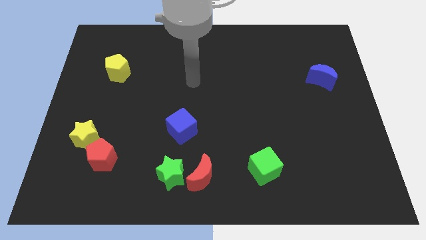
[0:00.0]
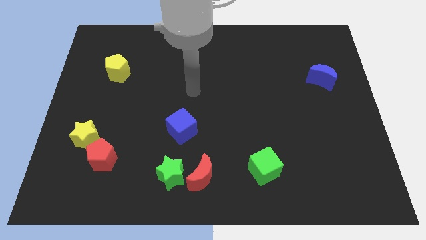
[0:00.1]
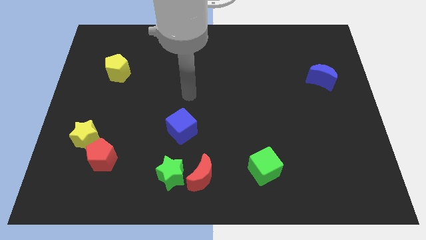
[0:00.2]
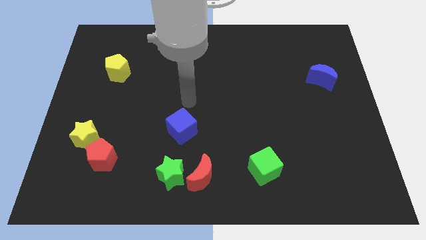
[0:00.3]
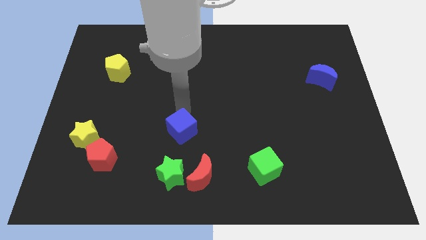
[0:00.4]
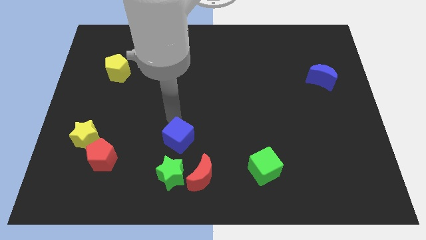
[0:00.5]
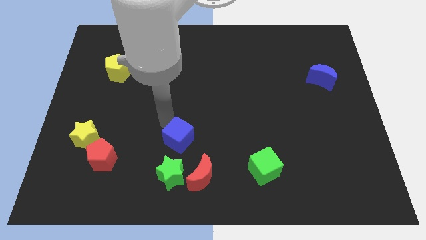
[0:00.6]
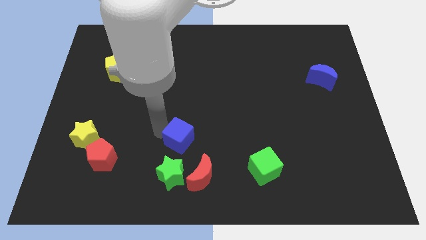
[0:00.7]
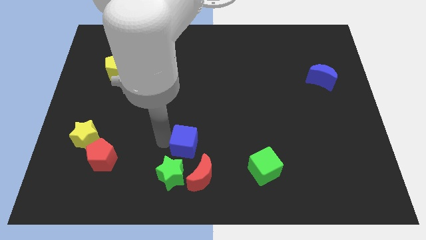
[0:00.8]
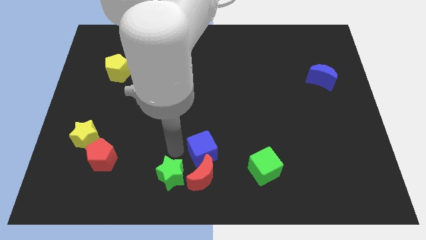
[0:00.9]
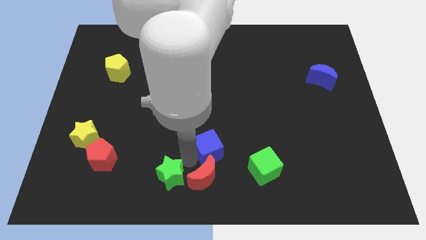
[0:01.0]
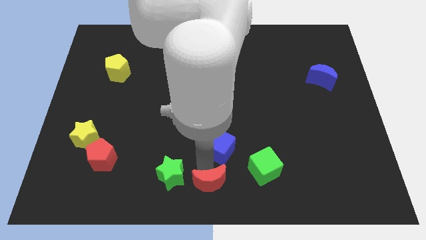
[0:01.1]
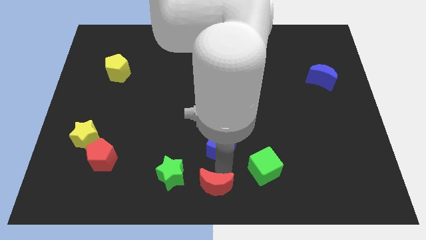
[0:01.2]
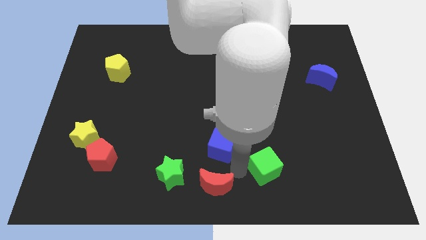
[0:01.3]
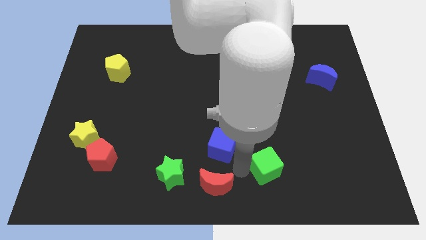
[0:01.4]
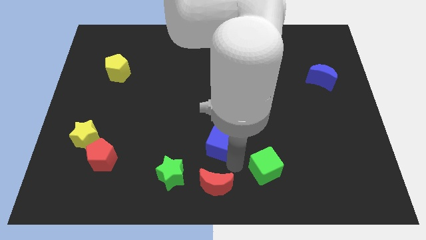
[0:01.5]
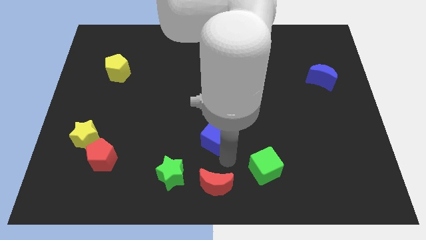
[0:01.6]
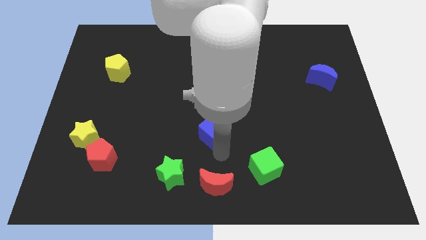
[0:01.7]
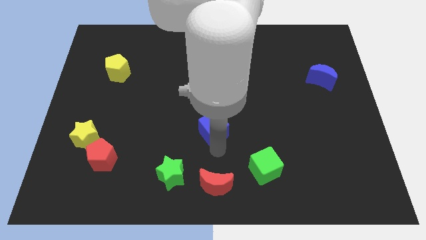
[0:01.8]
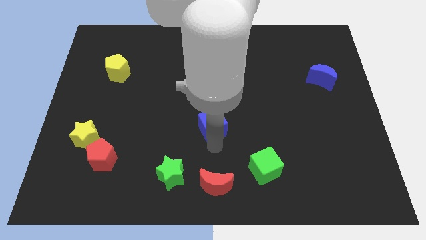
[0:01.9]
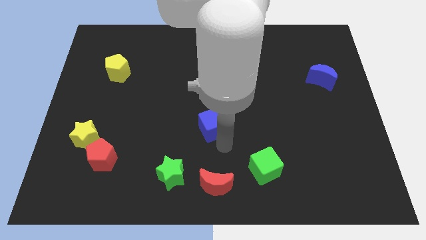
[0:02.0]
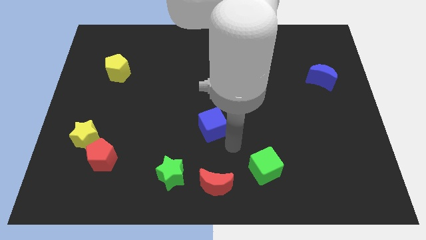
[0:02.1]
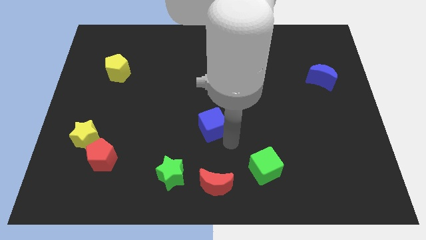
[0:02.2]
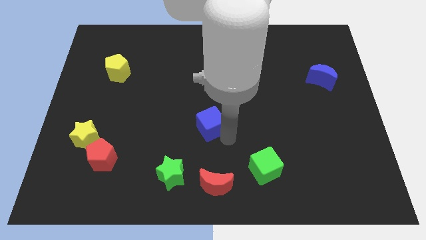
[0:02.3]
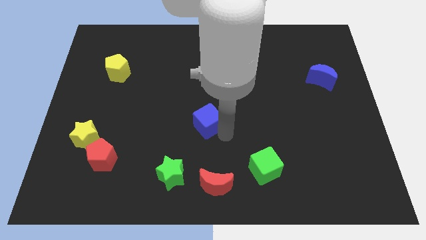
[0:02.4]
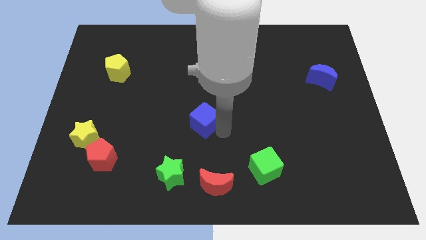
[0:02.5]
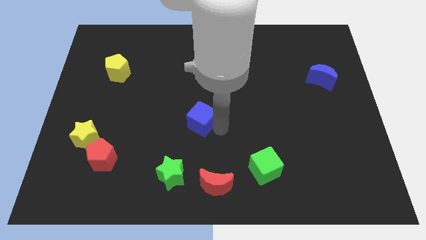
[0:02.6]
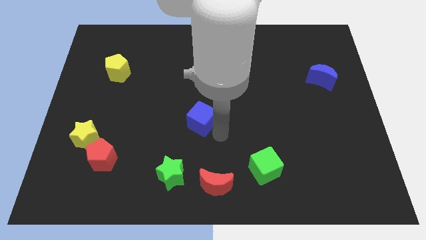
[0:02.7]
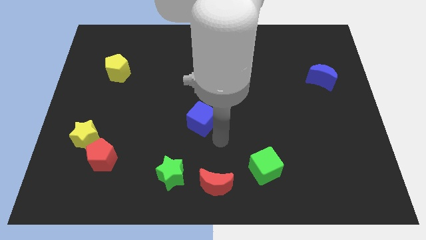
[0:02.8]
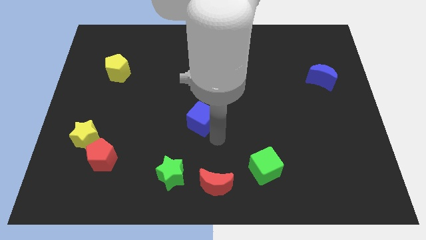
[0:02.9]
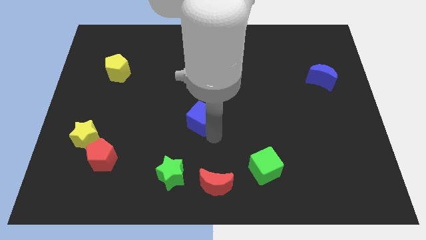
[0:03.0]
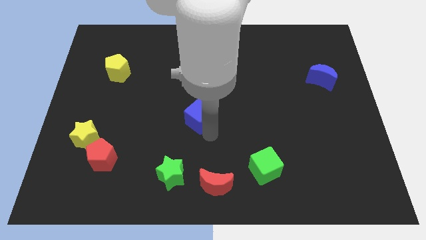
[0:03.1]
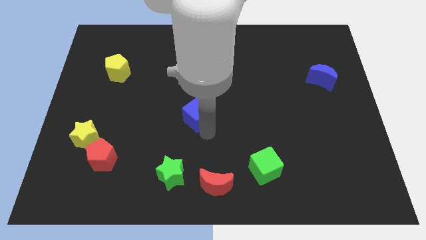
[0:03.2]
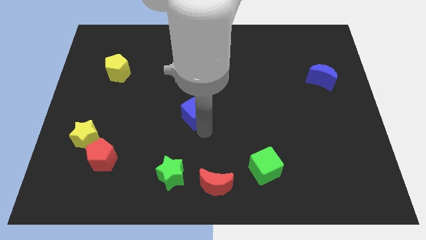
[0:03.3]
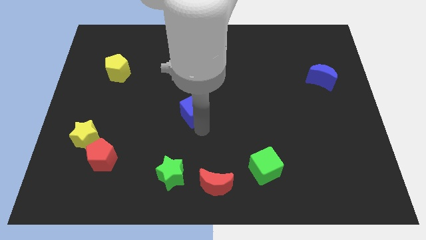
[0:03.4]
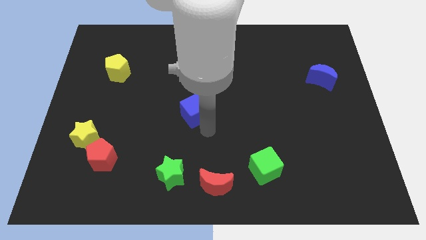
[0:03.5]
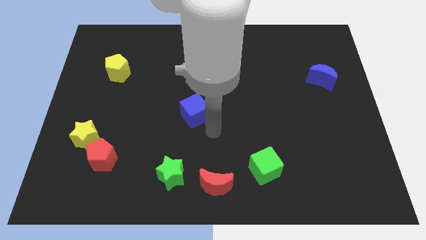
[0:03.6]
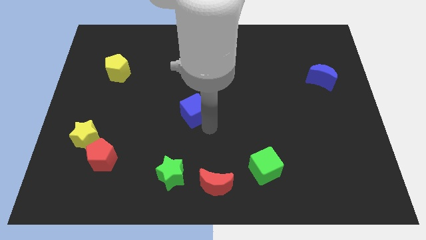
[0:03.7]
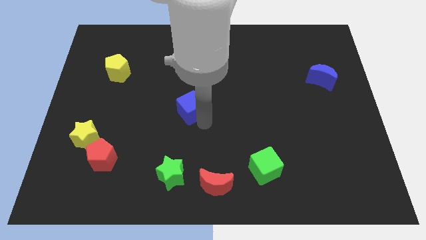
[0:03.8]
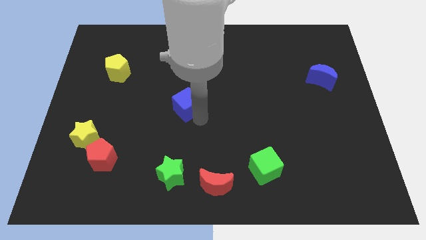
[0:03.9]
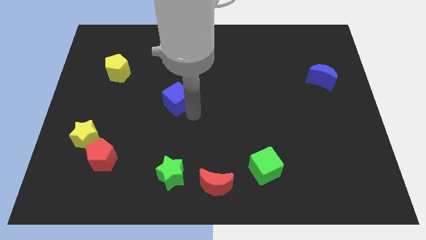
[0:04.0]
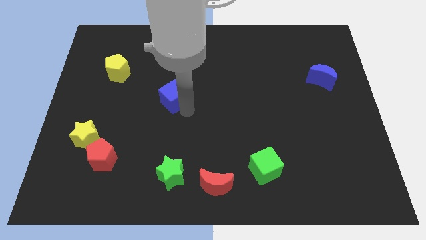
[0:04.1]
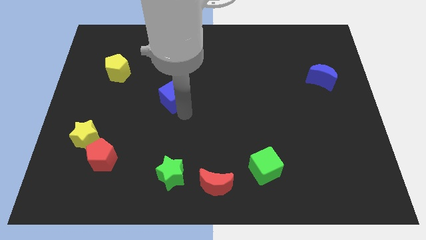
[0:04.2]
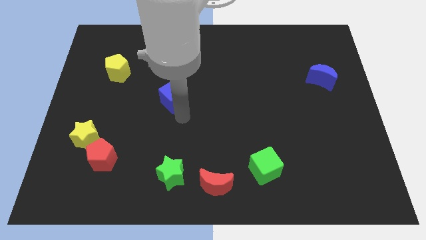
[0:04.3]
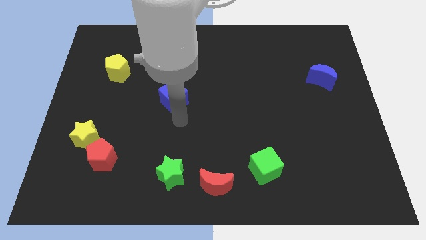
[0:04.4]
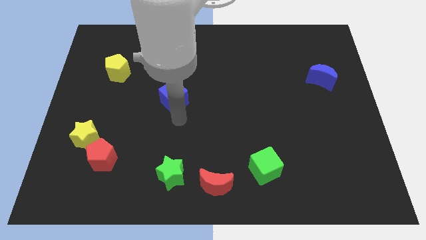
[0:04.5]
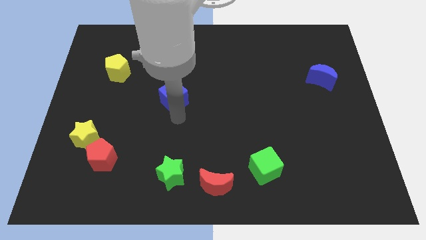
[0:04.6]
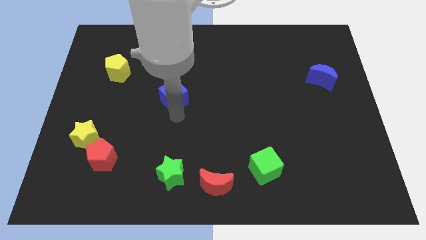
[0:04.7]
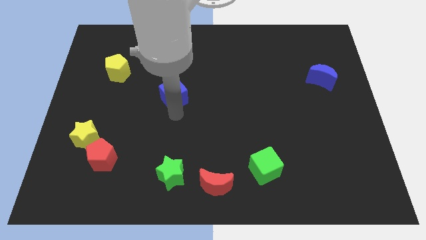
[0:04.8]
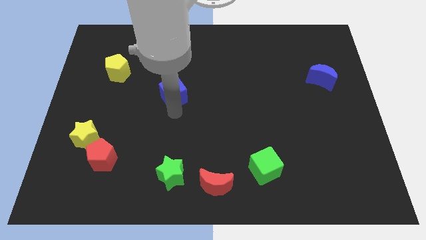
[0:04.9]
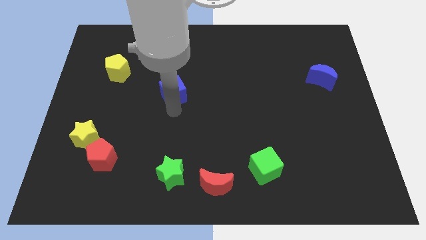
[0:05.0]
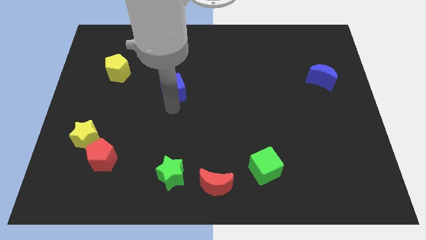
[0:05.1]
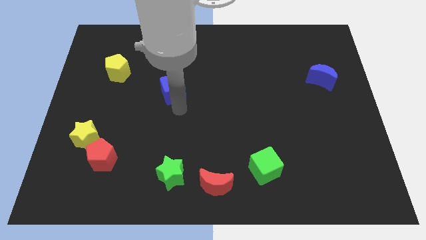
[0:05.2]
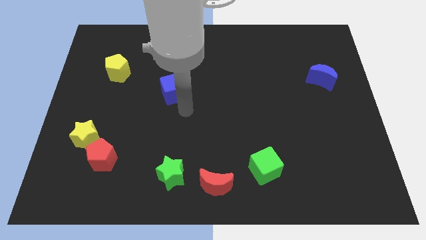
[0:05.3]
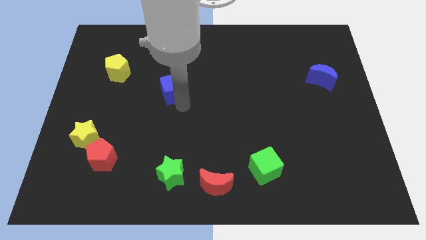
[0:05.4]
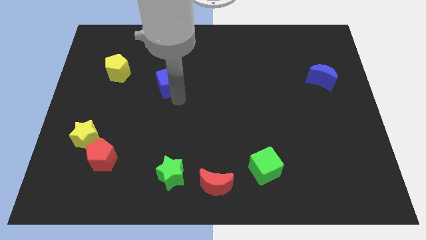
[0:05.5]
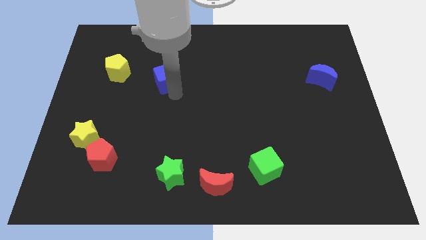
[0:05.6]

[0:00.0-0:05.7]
put the blue cube to the right of the yellow pentagon

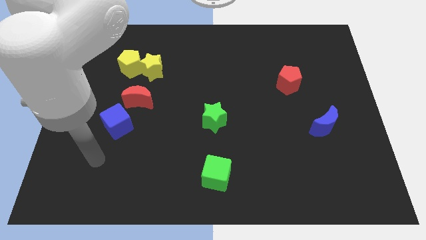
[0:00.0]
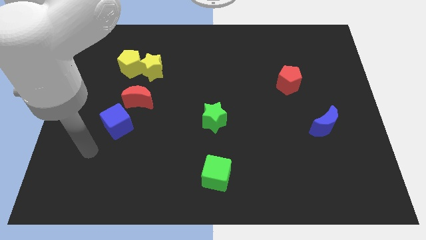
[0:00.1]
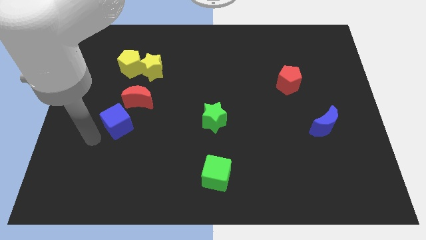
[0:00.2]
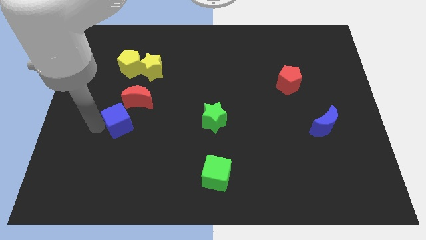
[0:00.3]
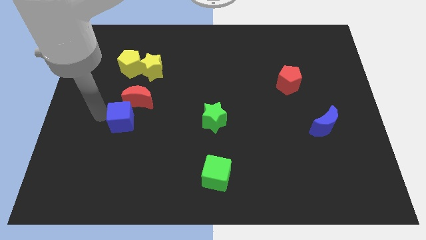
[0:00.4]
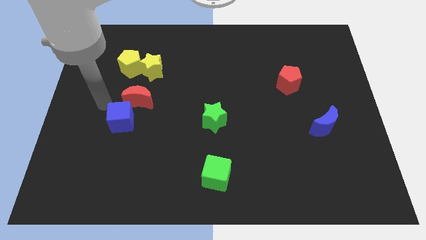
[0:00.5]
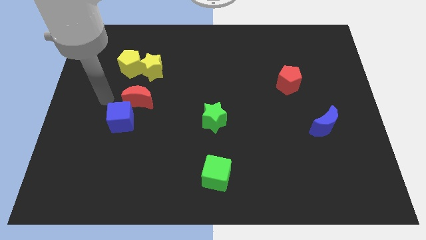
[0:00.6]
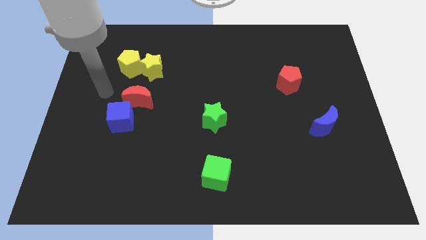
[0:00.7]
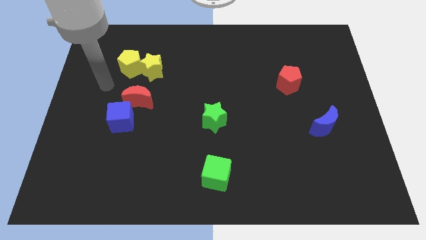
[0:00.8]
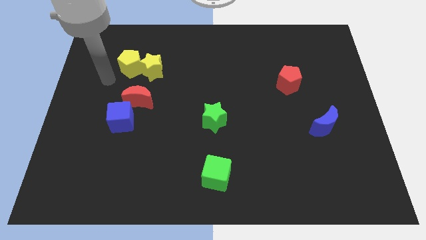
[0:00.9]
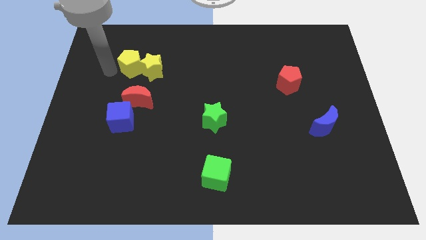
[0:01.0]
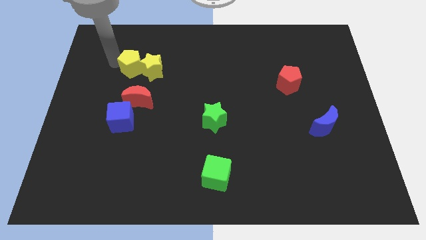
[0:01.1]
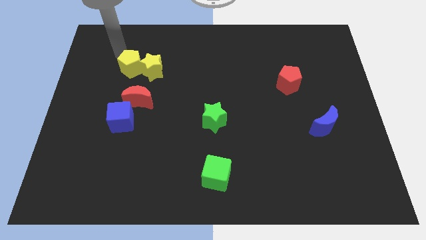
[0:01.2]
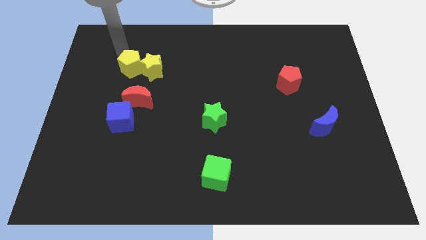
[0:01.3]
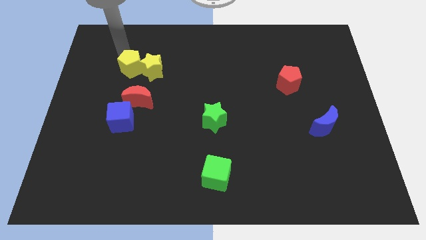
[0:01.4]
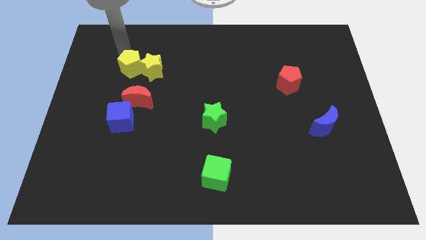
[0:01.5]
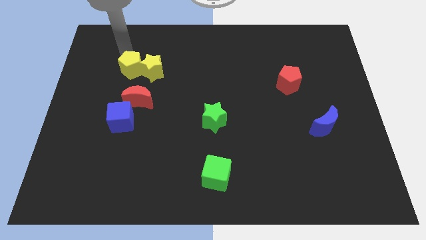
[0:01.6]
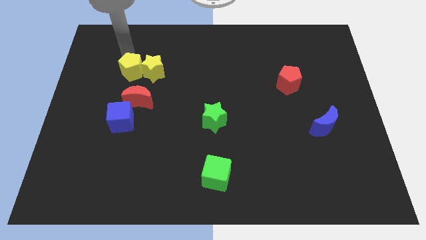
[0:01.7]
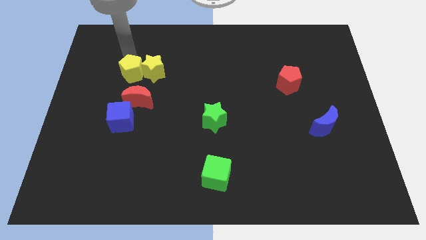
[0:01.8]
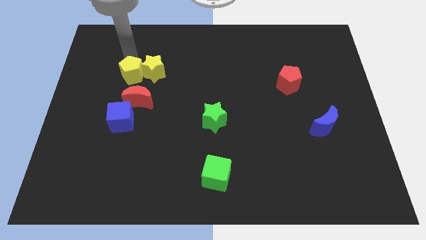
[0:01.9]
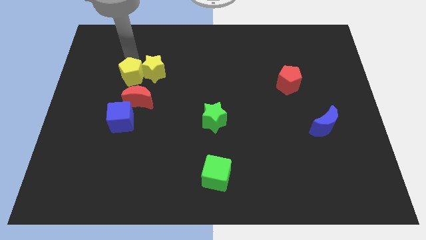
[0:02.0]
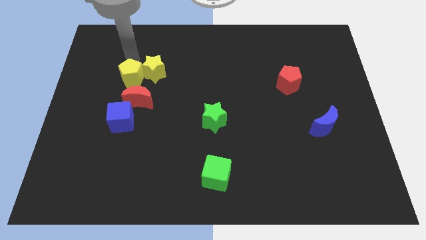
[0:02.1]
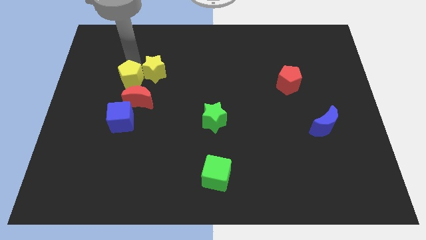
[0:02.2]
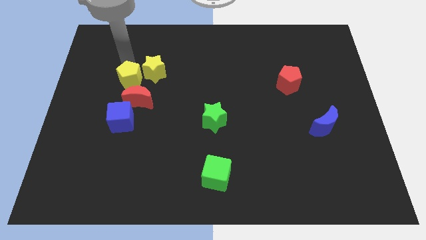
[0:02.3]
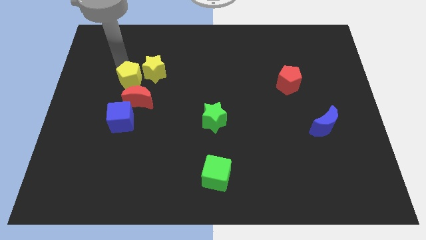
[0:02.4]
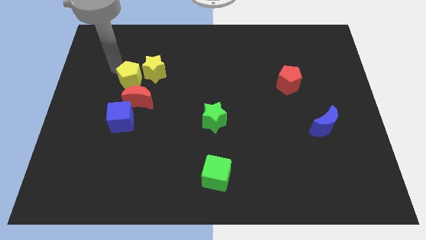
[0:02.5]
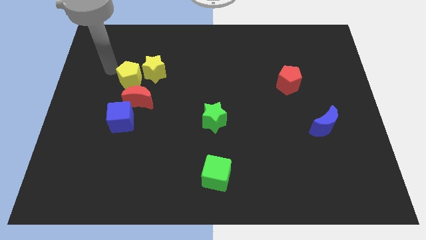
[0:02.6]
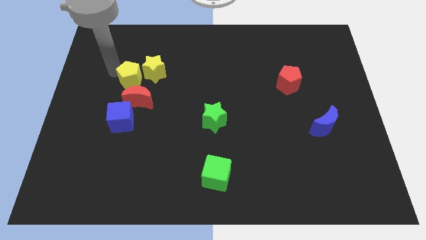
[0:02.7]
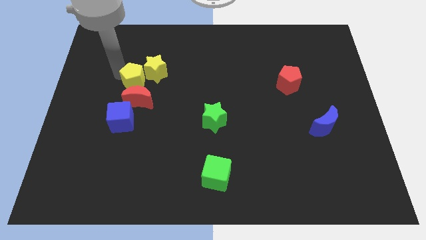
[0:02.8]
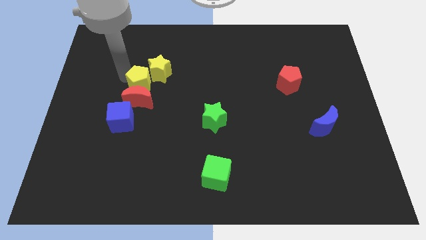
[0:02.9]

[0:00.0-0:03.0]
move the yellow pentagon to the bottom of the yellow star
